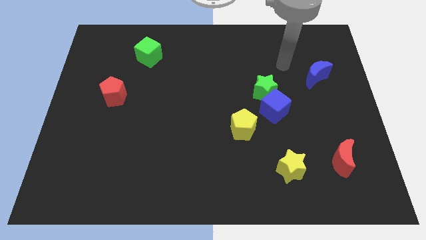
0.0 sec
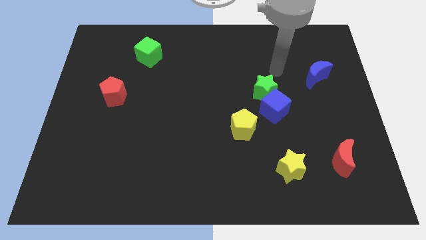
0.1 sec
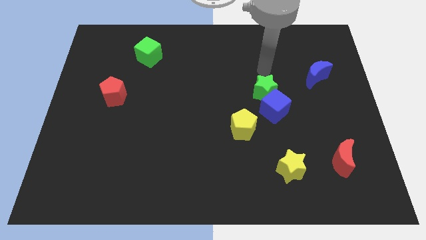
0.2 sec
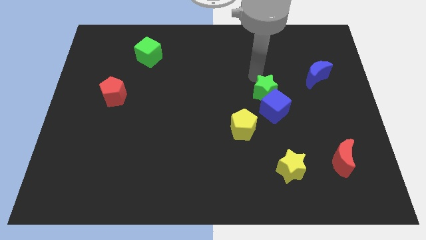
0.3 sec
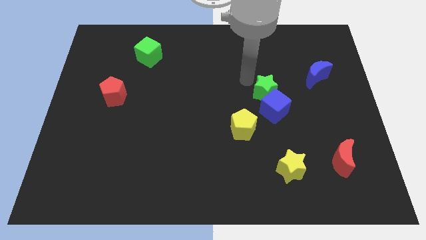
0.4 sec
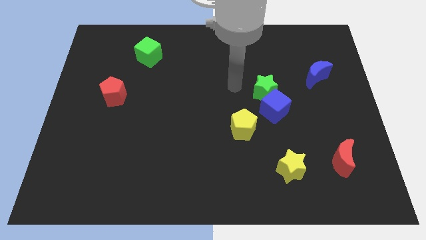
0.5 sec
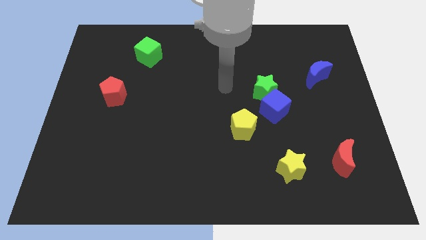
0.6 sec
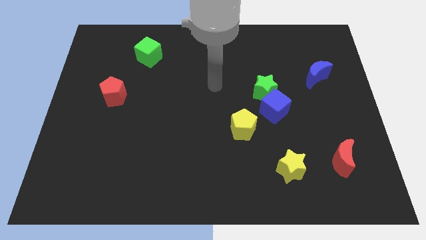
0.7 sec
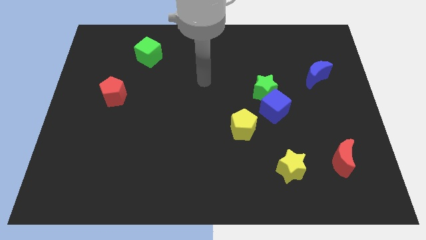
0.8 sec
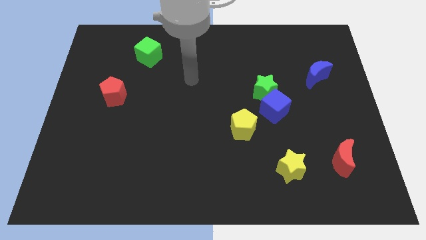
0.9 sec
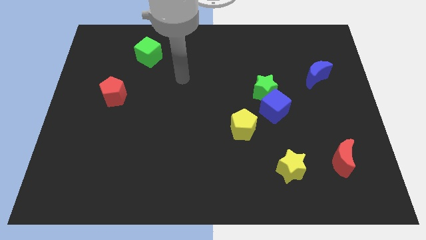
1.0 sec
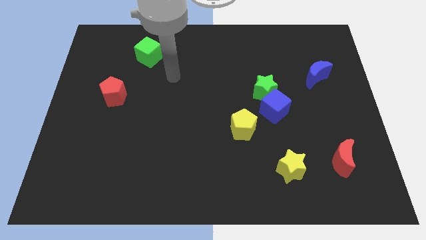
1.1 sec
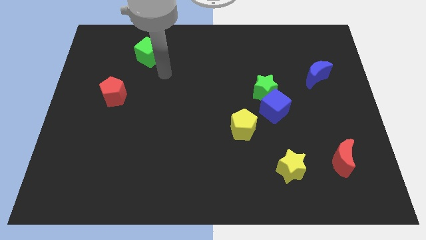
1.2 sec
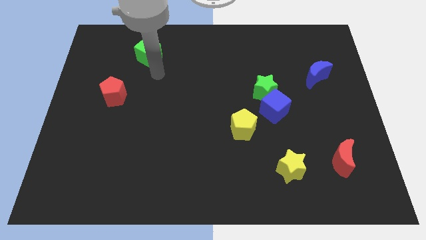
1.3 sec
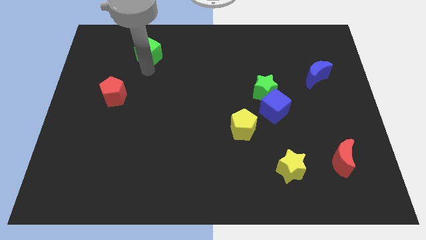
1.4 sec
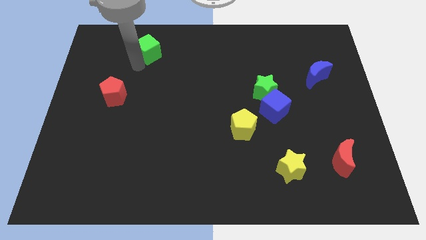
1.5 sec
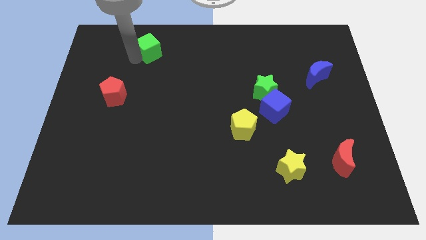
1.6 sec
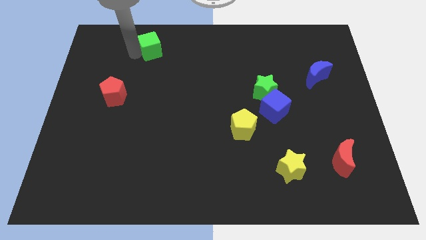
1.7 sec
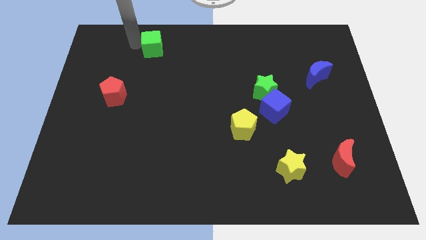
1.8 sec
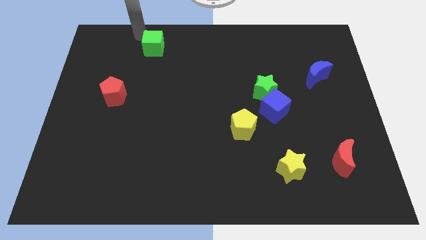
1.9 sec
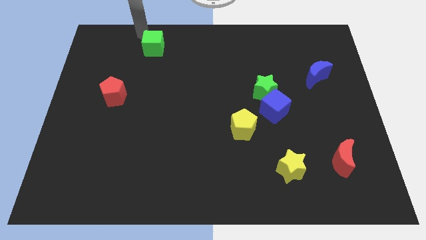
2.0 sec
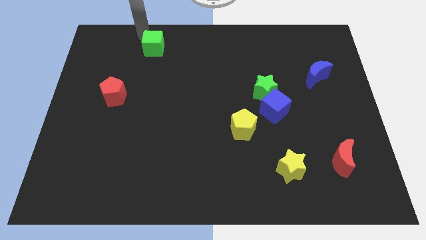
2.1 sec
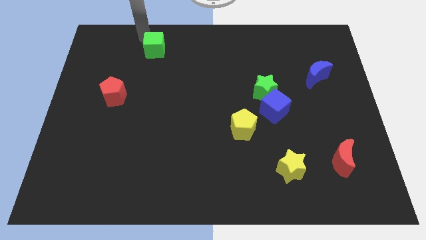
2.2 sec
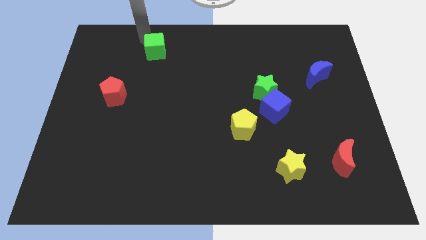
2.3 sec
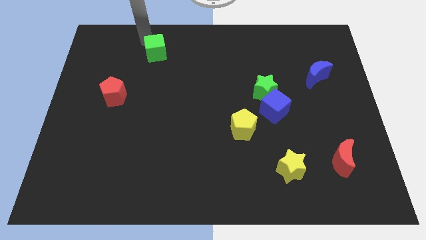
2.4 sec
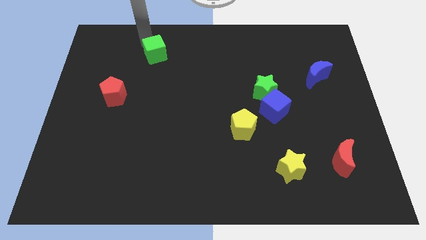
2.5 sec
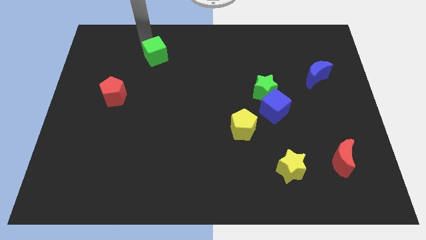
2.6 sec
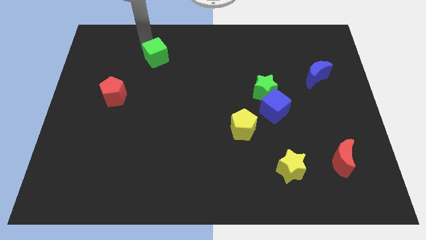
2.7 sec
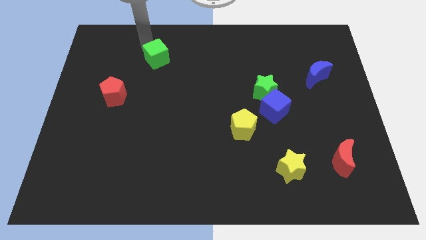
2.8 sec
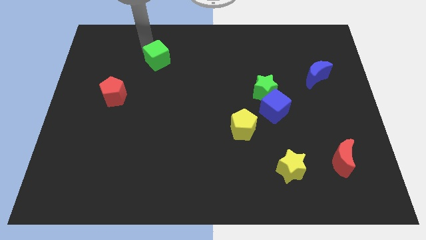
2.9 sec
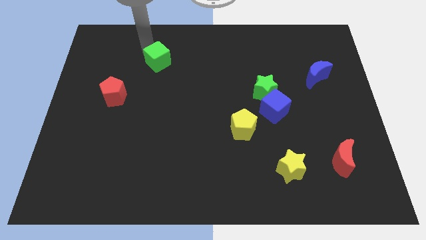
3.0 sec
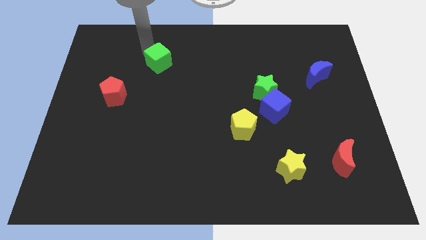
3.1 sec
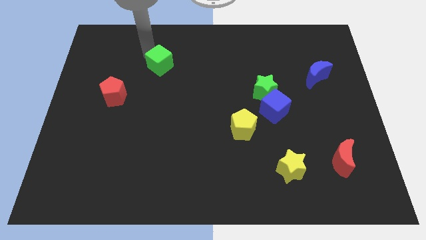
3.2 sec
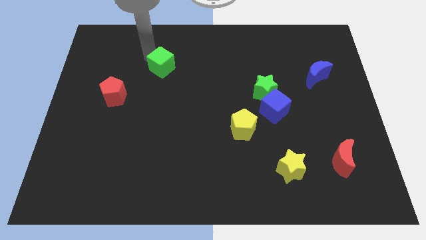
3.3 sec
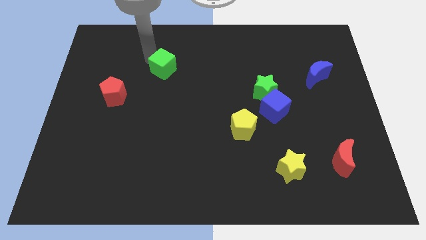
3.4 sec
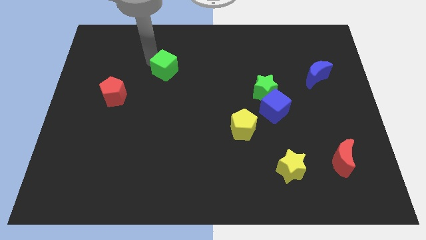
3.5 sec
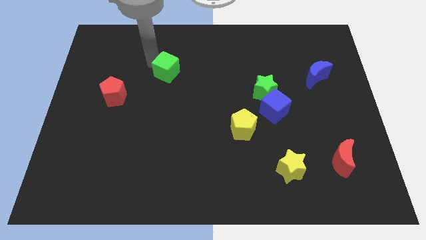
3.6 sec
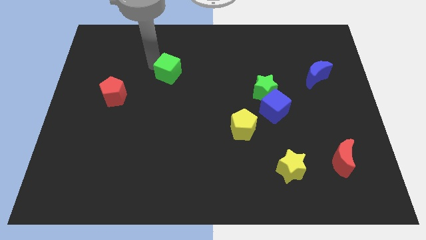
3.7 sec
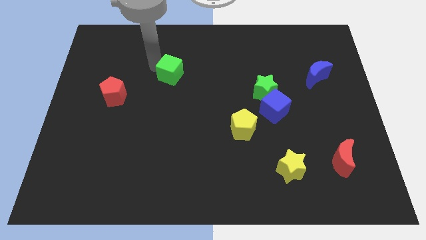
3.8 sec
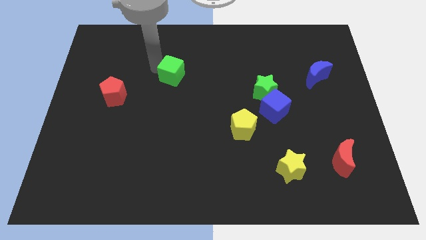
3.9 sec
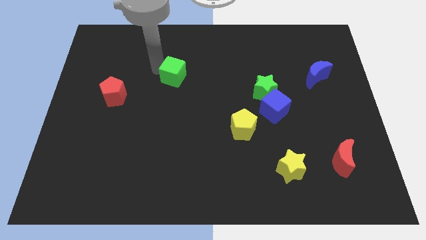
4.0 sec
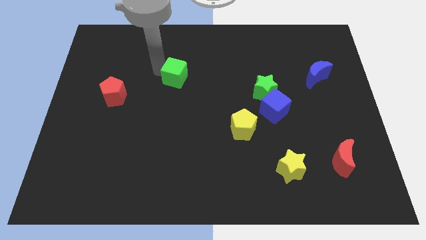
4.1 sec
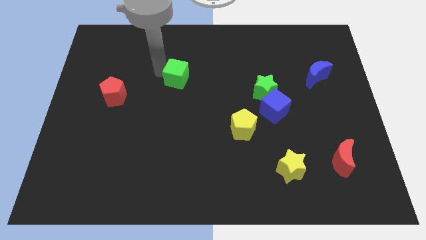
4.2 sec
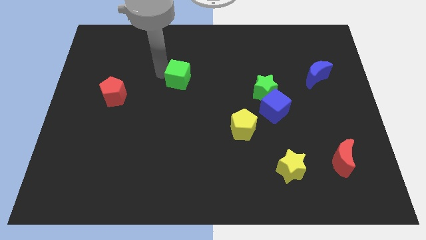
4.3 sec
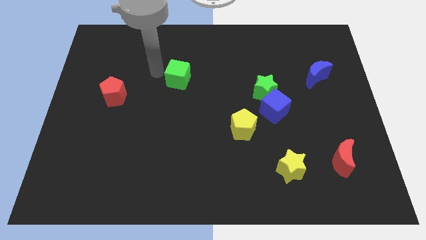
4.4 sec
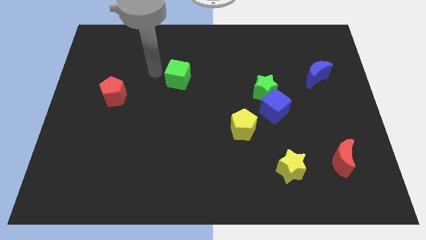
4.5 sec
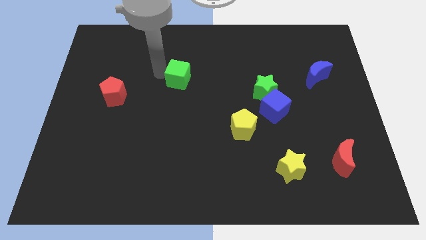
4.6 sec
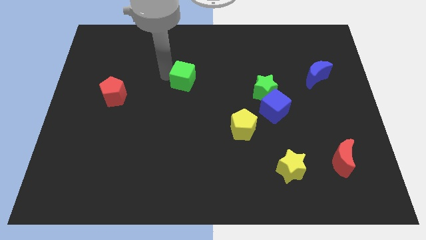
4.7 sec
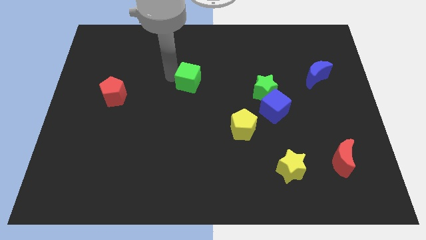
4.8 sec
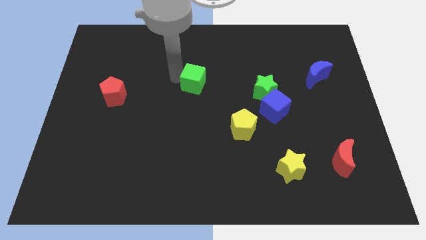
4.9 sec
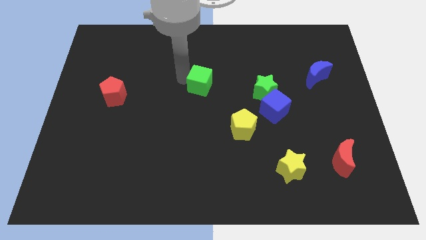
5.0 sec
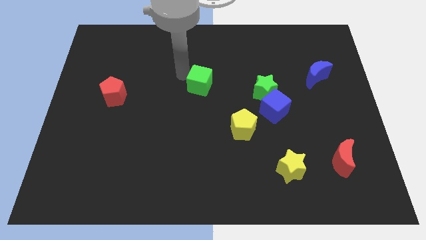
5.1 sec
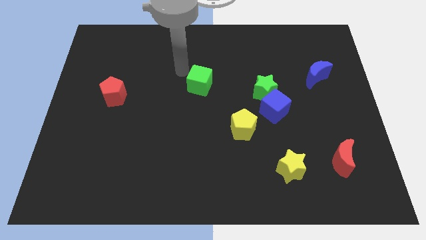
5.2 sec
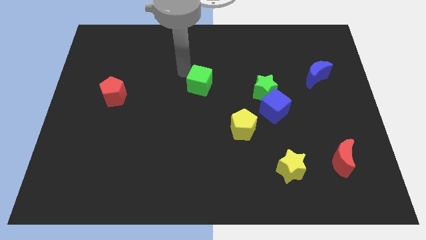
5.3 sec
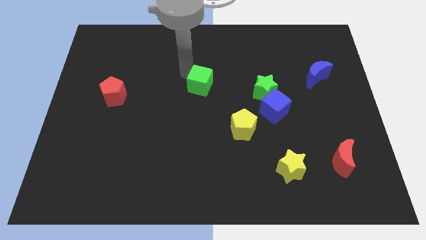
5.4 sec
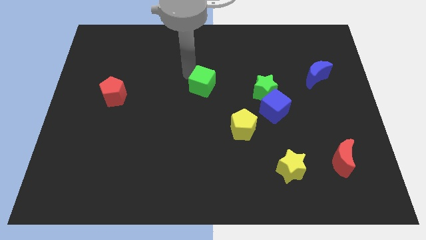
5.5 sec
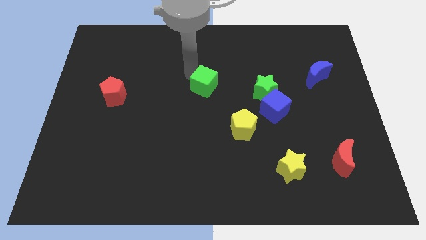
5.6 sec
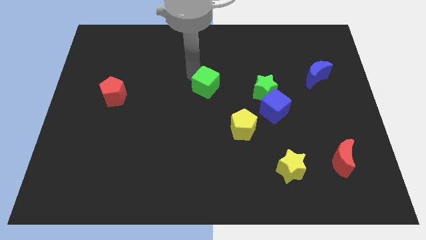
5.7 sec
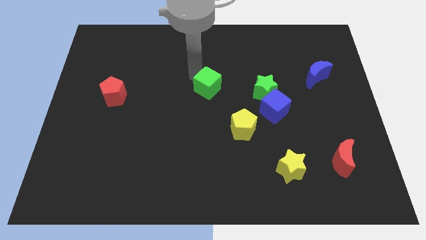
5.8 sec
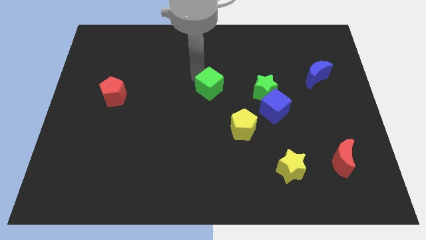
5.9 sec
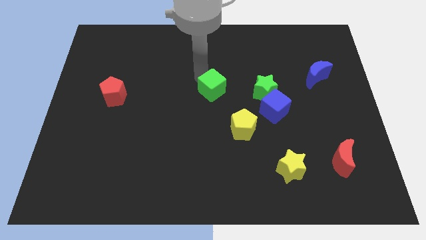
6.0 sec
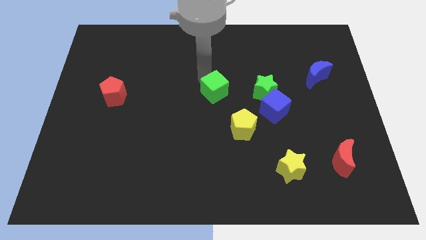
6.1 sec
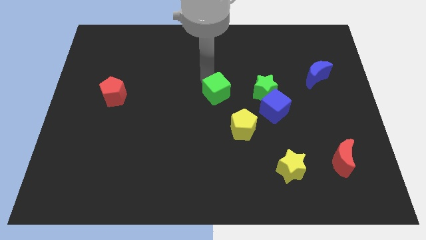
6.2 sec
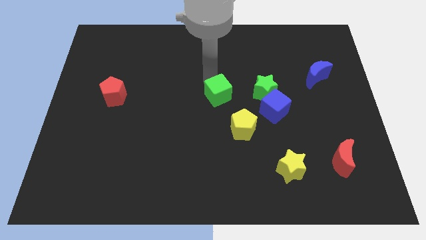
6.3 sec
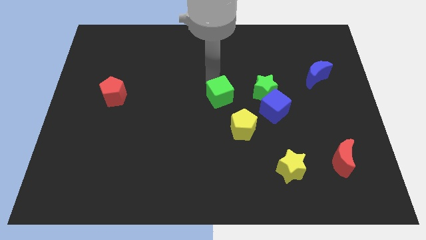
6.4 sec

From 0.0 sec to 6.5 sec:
slide the green cube just left of the blue cube
